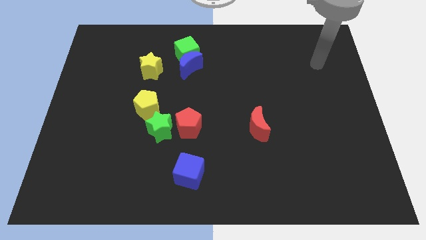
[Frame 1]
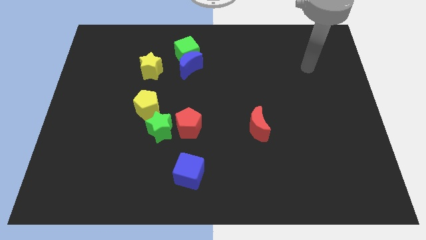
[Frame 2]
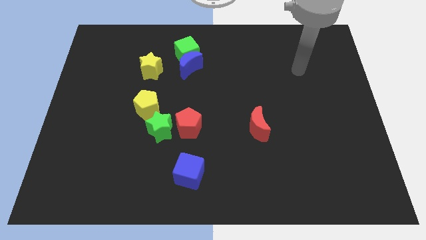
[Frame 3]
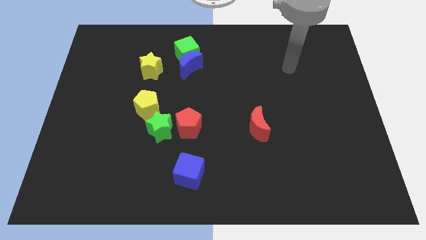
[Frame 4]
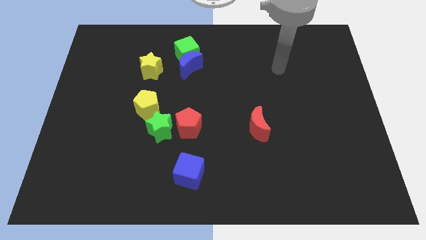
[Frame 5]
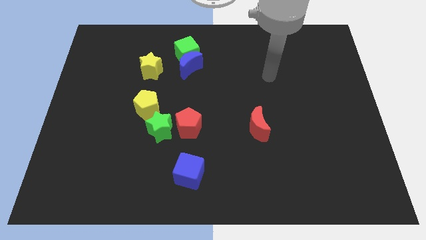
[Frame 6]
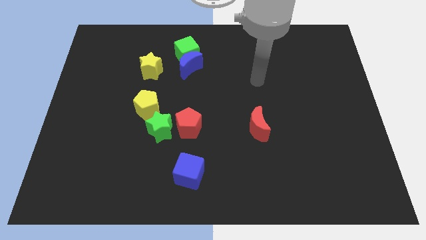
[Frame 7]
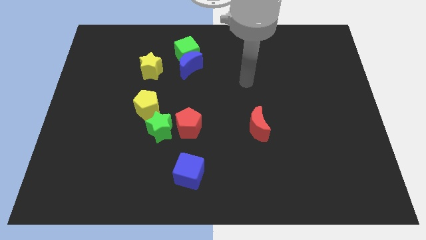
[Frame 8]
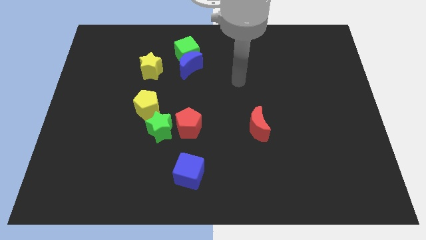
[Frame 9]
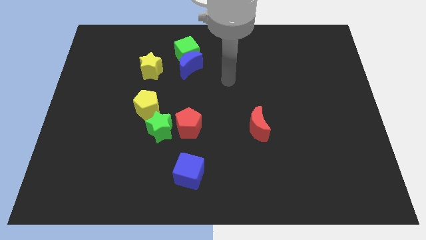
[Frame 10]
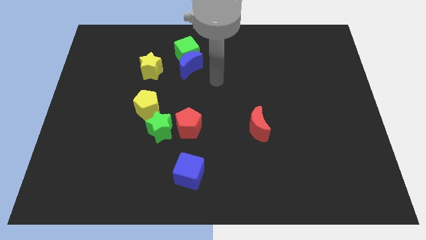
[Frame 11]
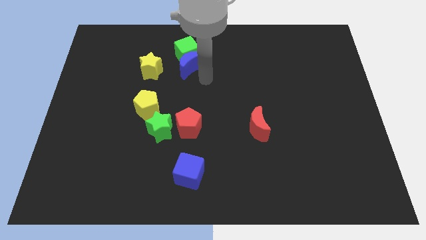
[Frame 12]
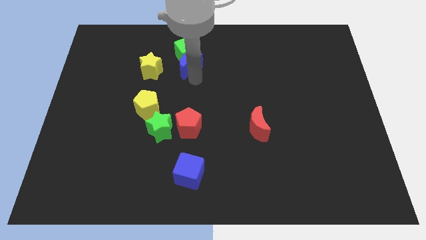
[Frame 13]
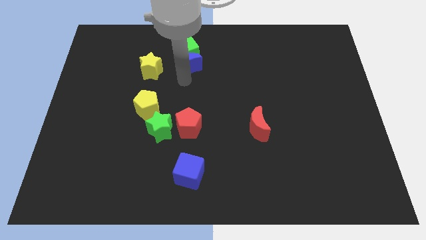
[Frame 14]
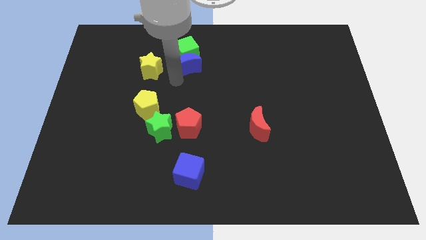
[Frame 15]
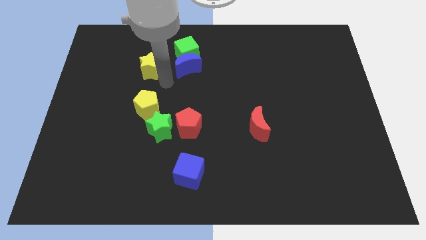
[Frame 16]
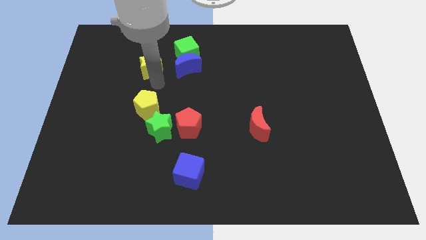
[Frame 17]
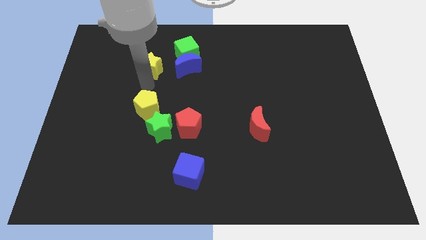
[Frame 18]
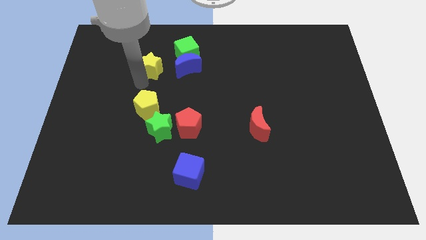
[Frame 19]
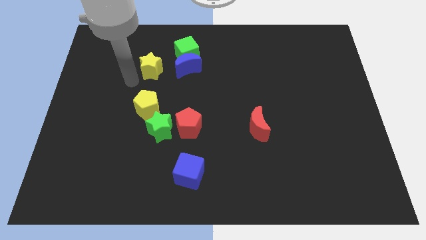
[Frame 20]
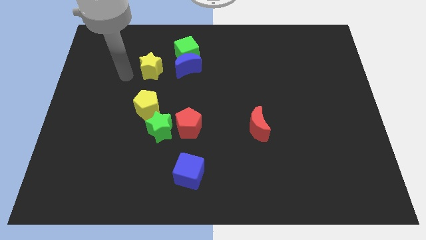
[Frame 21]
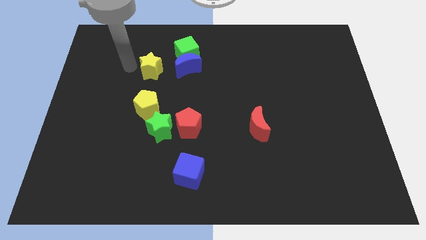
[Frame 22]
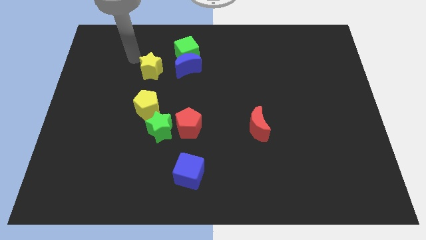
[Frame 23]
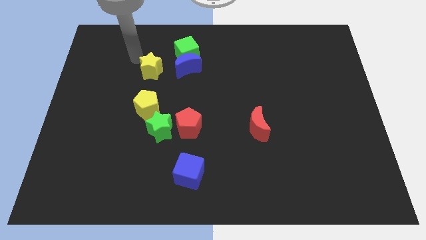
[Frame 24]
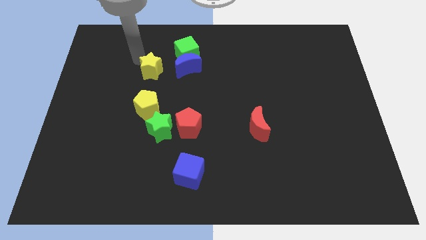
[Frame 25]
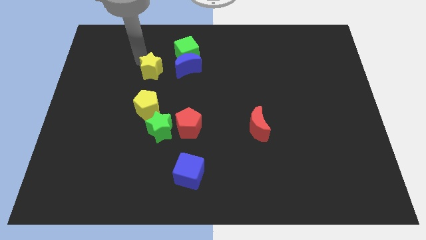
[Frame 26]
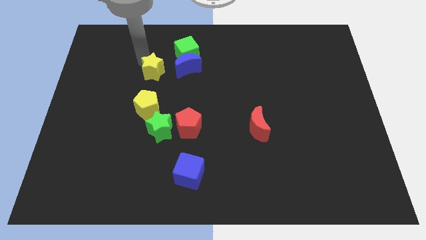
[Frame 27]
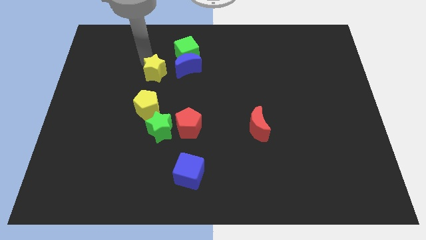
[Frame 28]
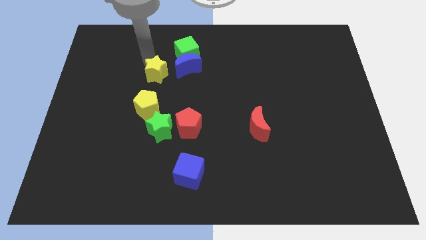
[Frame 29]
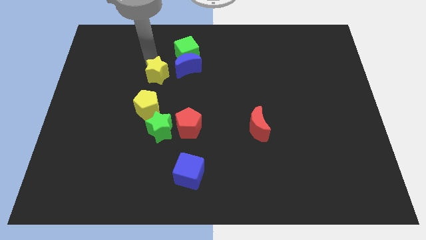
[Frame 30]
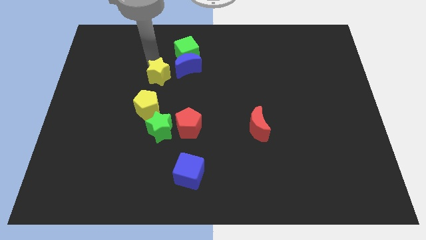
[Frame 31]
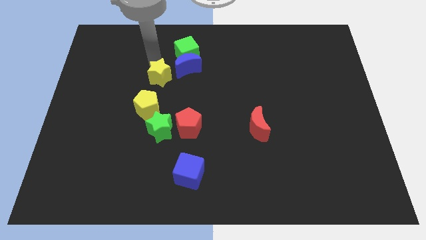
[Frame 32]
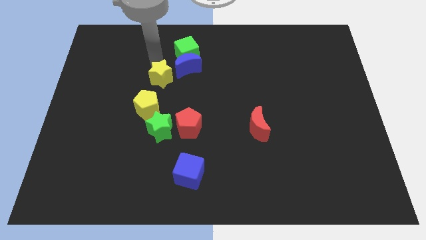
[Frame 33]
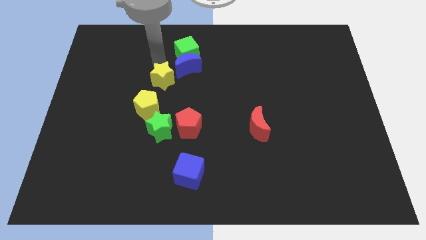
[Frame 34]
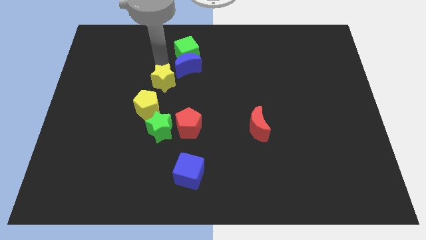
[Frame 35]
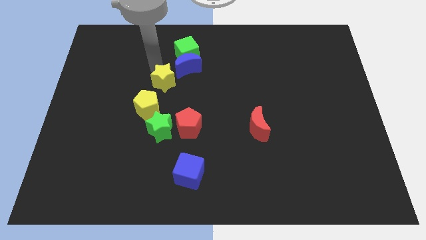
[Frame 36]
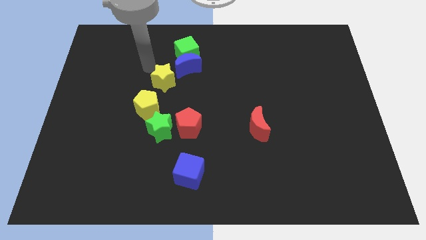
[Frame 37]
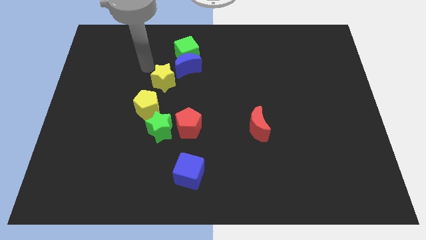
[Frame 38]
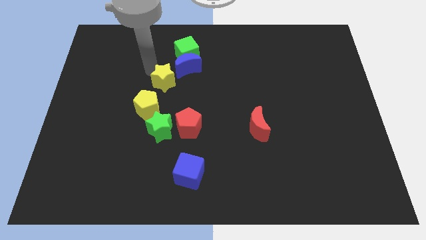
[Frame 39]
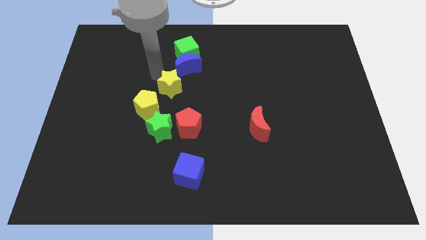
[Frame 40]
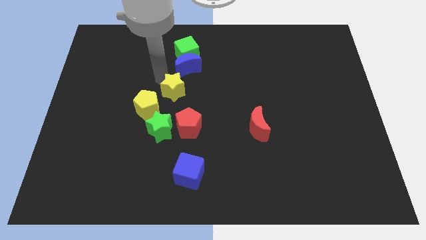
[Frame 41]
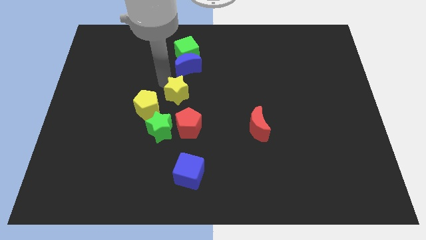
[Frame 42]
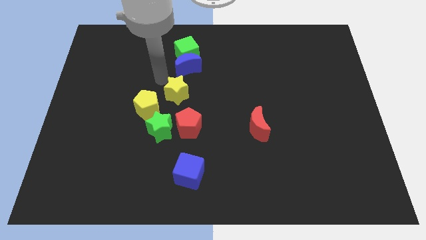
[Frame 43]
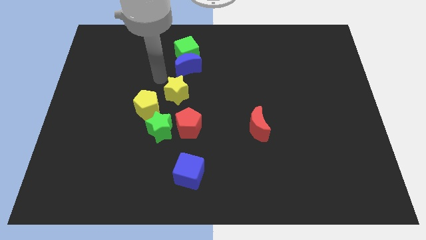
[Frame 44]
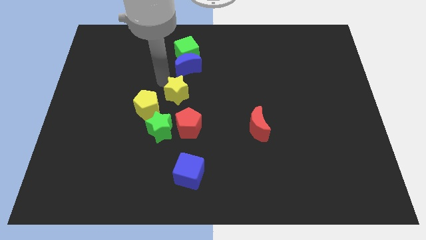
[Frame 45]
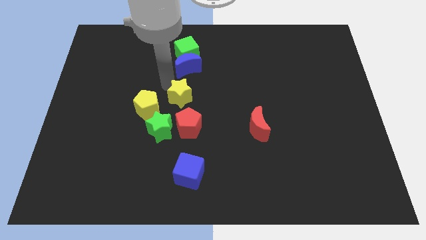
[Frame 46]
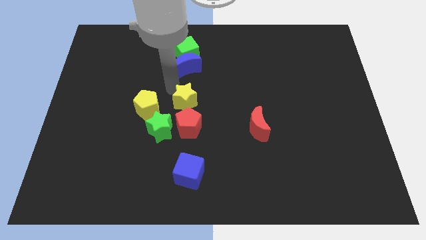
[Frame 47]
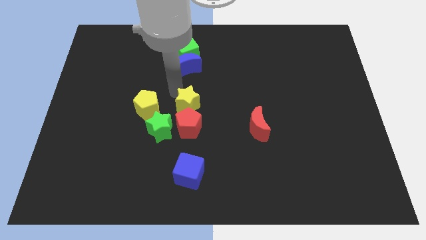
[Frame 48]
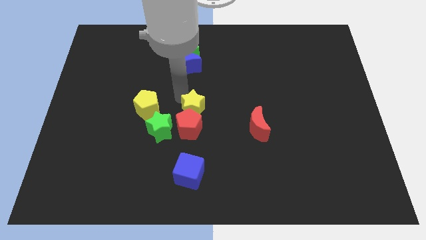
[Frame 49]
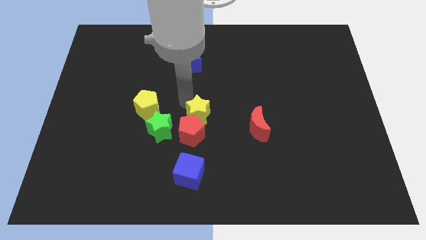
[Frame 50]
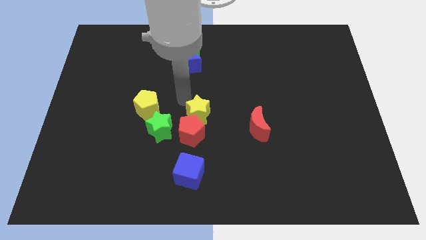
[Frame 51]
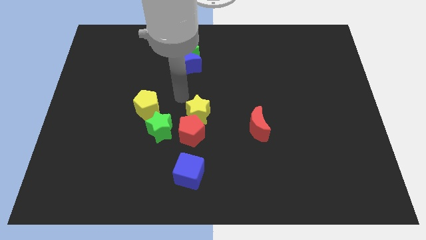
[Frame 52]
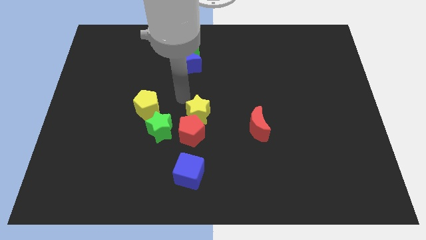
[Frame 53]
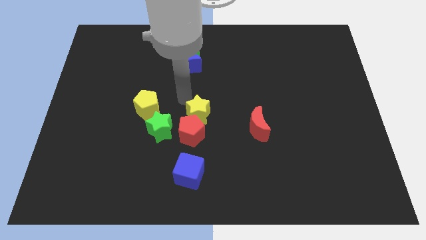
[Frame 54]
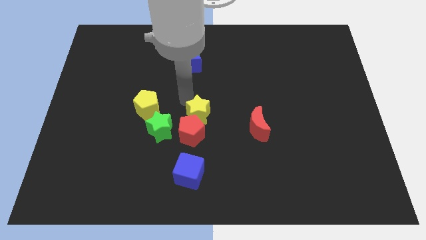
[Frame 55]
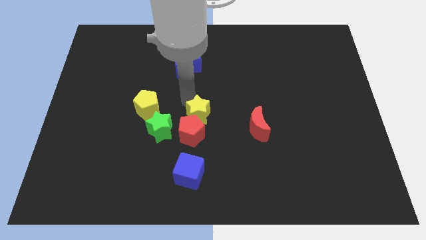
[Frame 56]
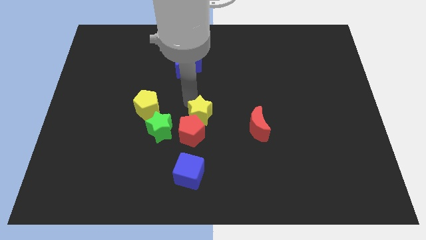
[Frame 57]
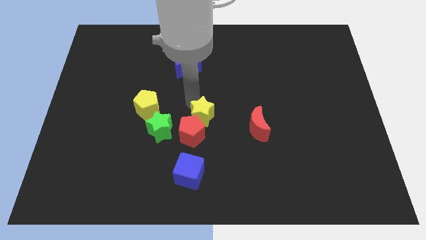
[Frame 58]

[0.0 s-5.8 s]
move the yellow star down and then to the right

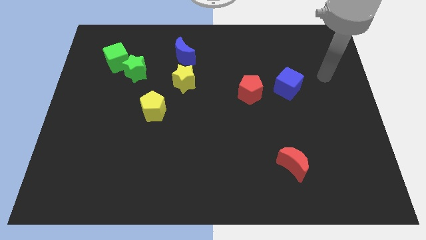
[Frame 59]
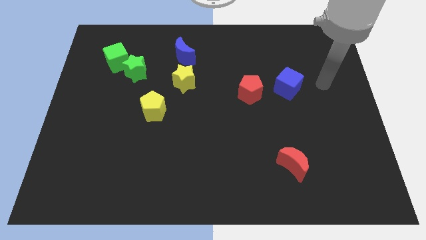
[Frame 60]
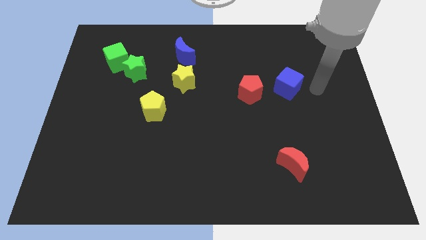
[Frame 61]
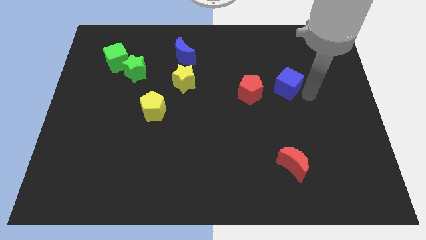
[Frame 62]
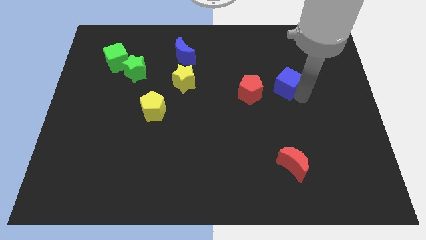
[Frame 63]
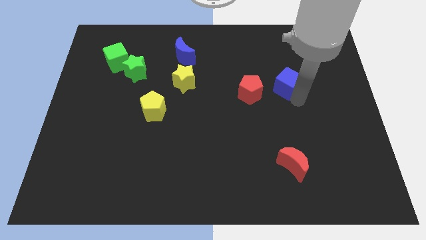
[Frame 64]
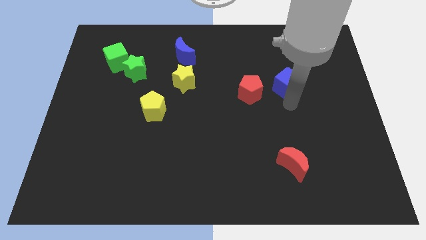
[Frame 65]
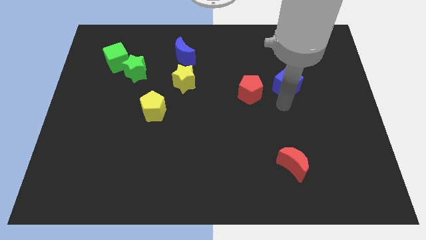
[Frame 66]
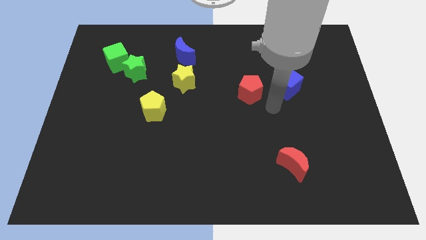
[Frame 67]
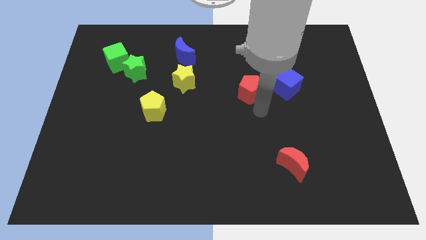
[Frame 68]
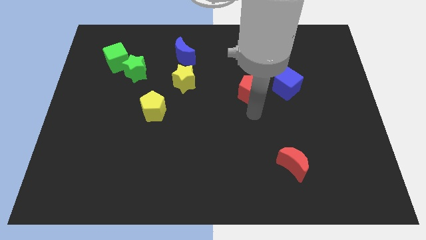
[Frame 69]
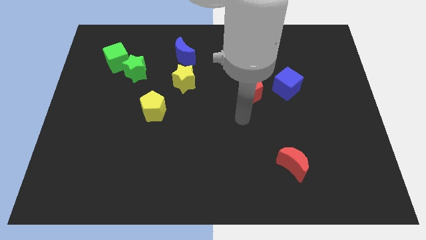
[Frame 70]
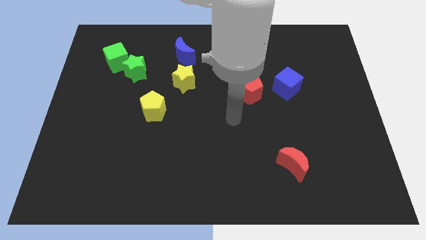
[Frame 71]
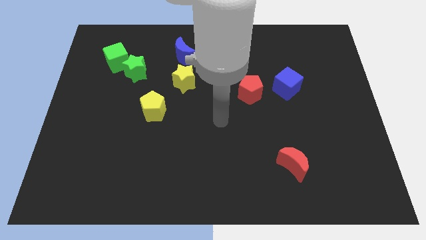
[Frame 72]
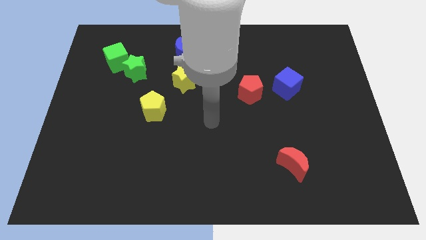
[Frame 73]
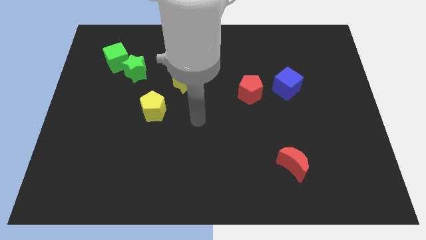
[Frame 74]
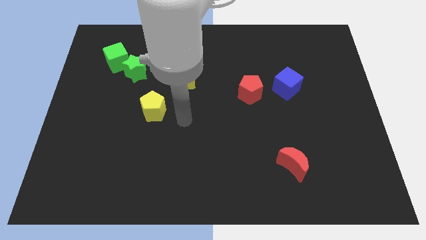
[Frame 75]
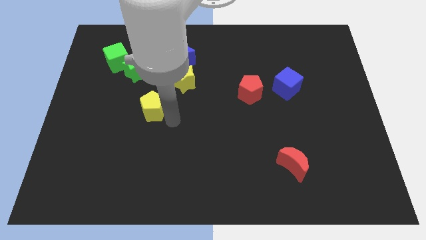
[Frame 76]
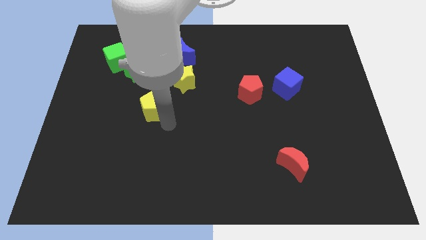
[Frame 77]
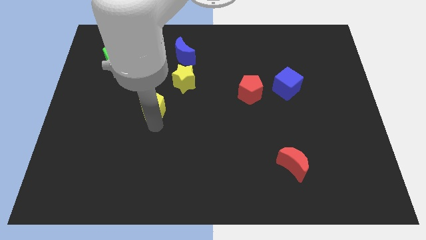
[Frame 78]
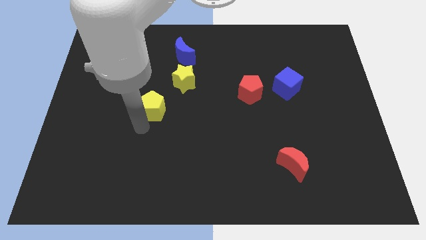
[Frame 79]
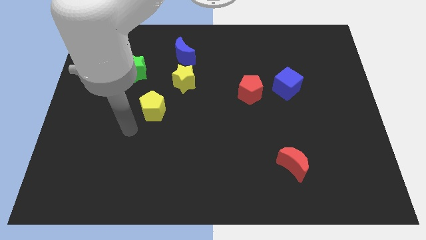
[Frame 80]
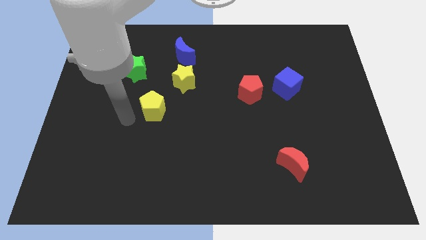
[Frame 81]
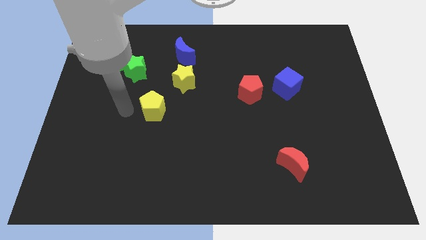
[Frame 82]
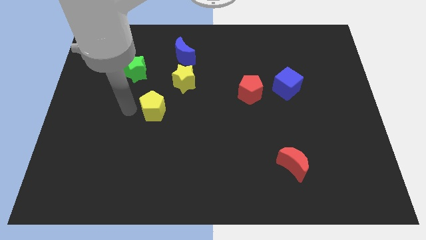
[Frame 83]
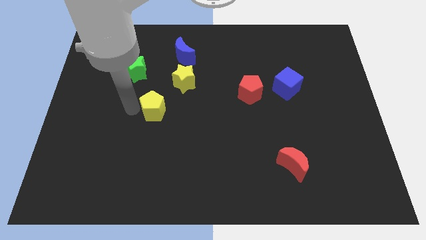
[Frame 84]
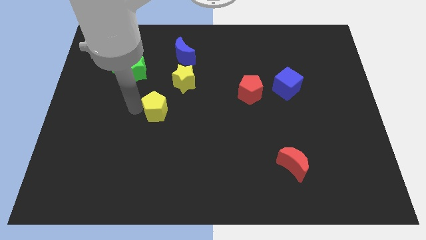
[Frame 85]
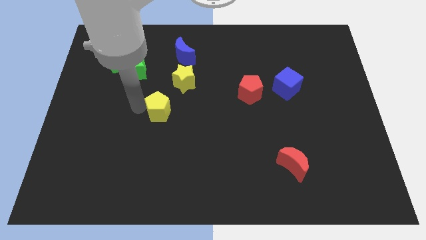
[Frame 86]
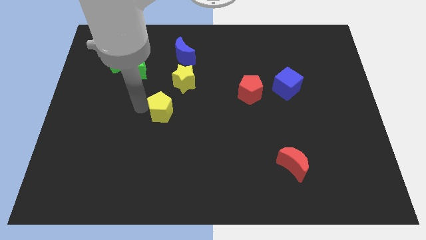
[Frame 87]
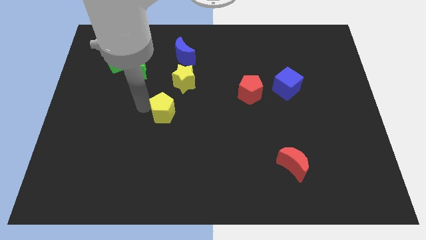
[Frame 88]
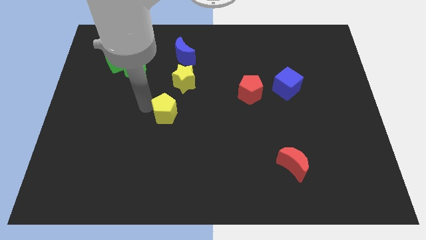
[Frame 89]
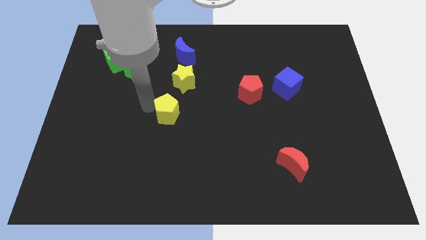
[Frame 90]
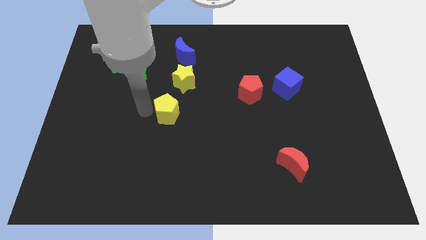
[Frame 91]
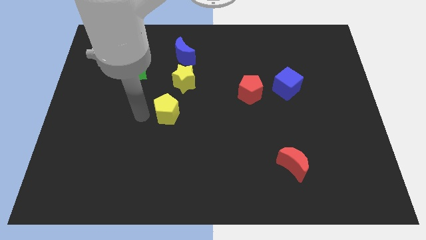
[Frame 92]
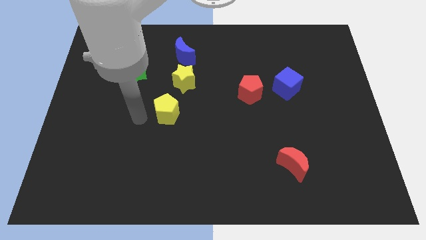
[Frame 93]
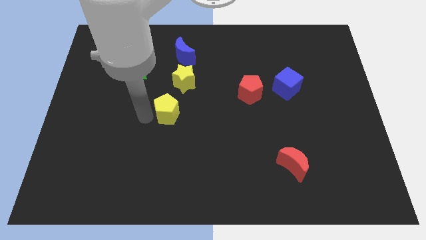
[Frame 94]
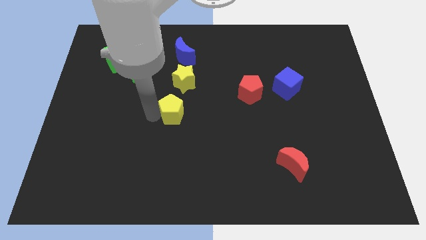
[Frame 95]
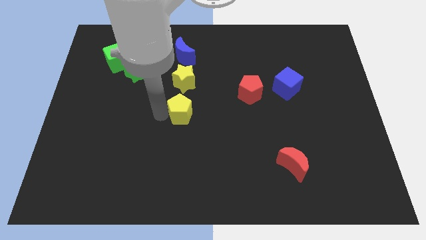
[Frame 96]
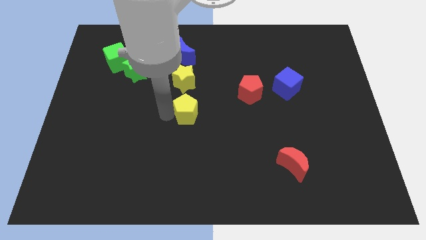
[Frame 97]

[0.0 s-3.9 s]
push the yellow pentagon right a bit
